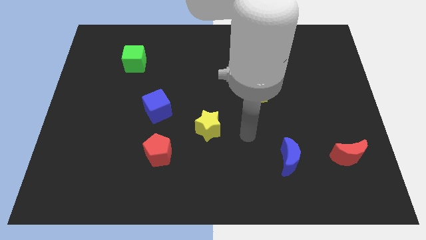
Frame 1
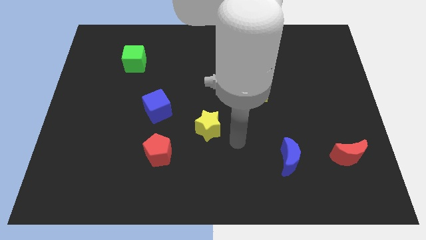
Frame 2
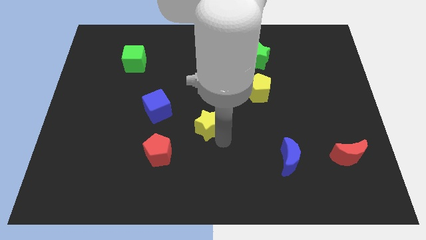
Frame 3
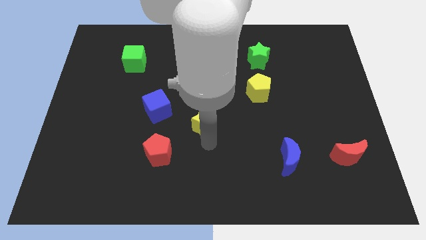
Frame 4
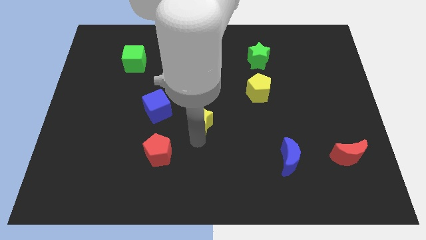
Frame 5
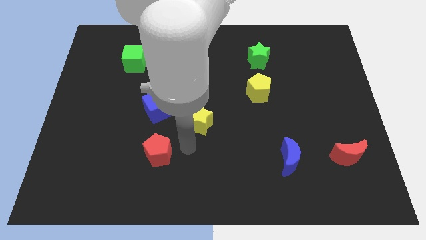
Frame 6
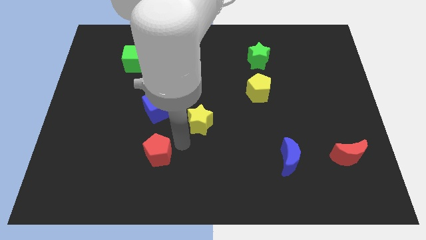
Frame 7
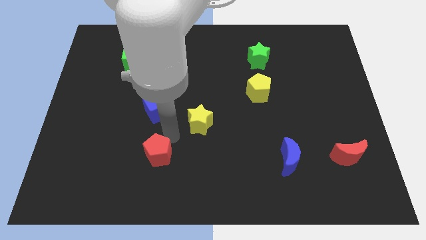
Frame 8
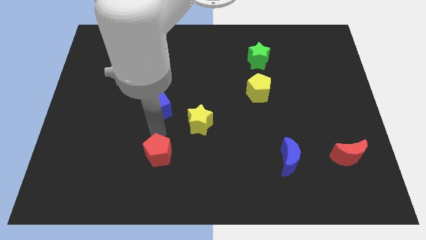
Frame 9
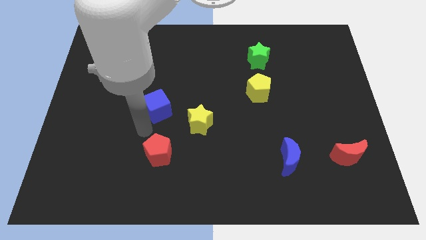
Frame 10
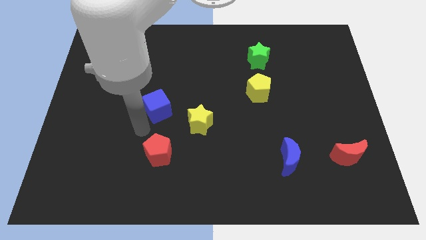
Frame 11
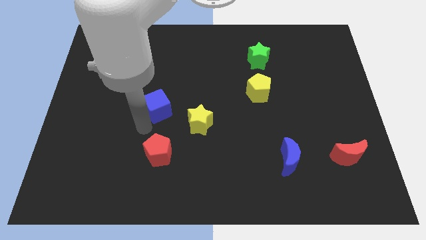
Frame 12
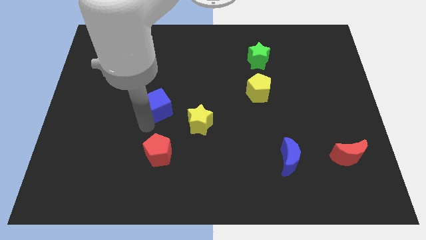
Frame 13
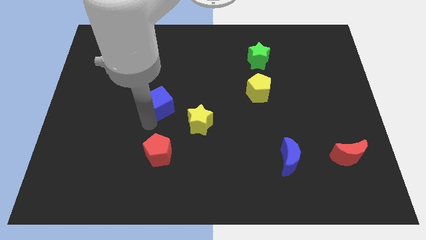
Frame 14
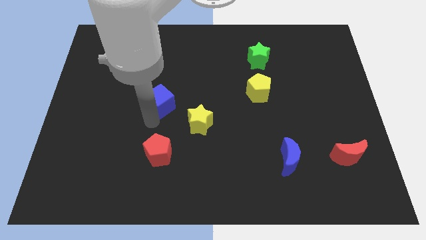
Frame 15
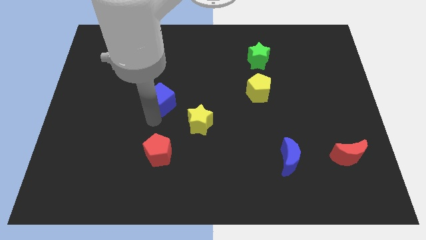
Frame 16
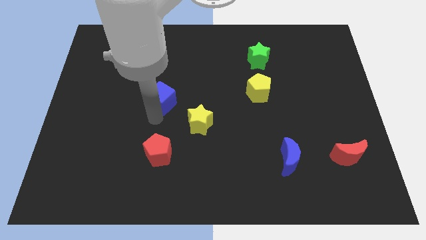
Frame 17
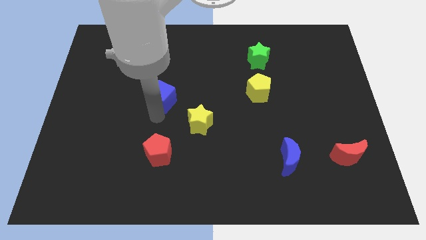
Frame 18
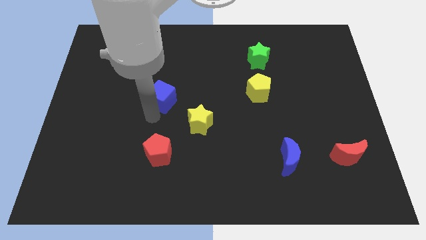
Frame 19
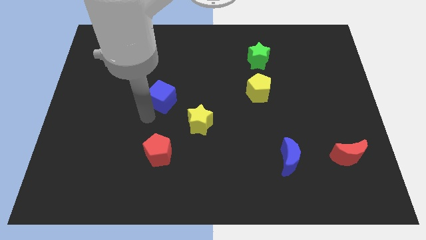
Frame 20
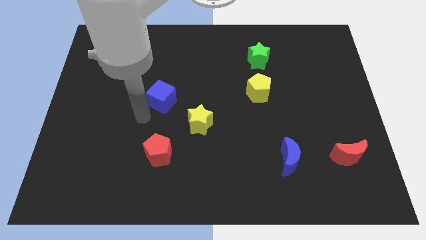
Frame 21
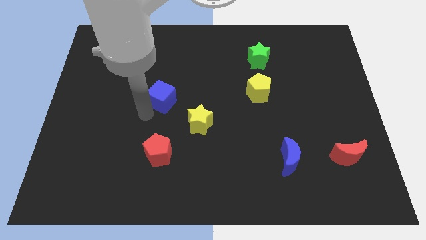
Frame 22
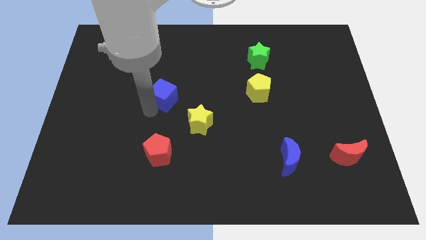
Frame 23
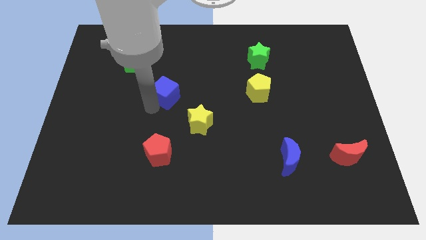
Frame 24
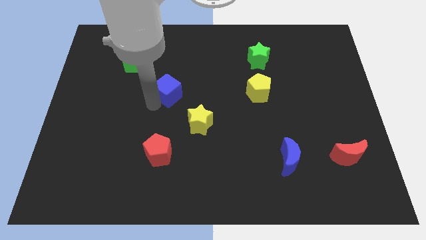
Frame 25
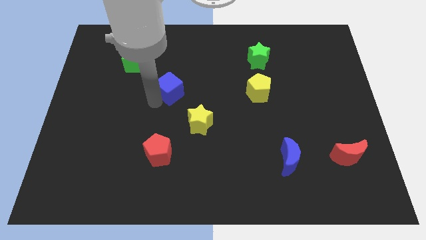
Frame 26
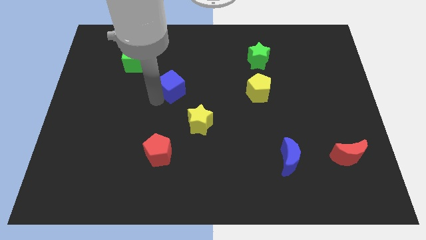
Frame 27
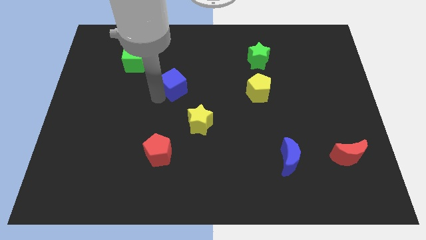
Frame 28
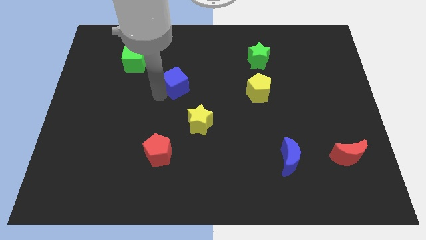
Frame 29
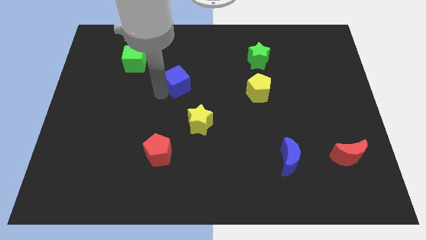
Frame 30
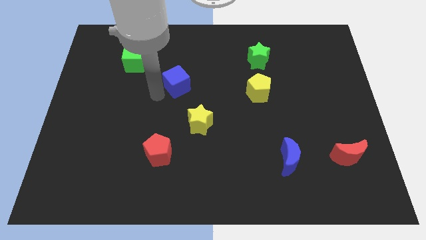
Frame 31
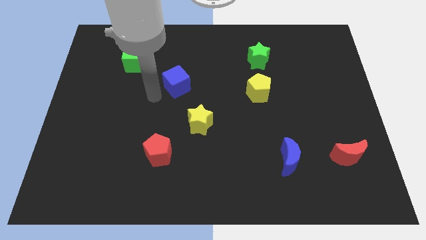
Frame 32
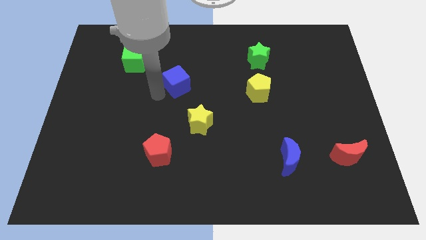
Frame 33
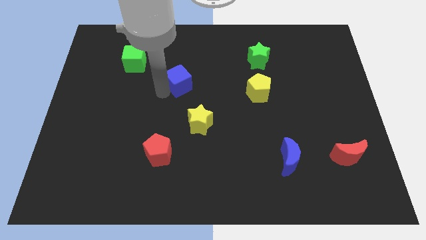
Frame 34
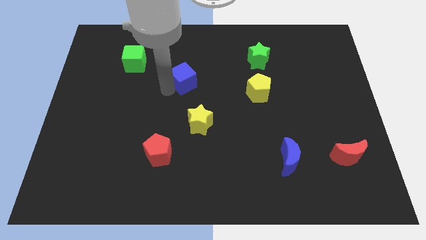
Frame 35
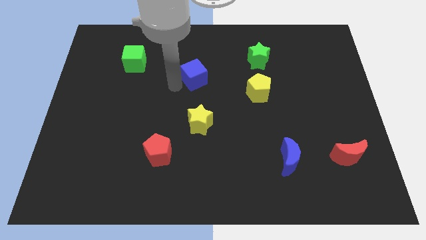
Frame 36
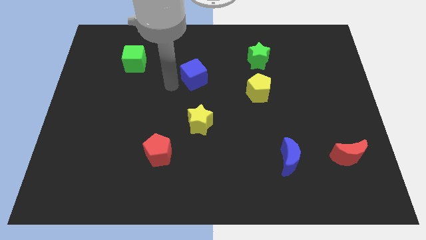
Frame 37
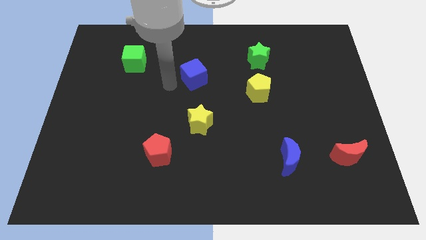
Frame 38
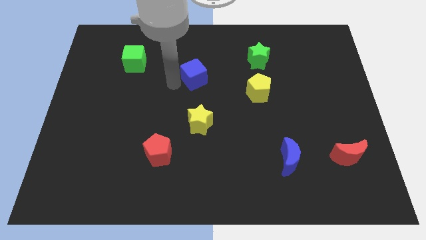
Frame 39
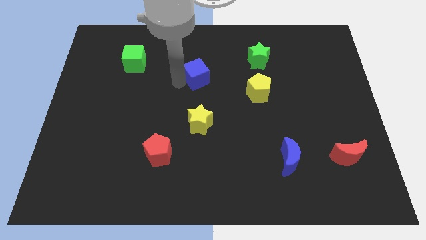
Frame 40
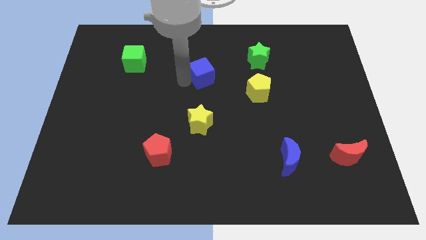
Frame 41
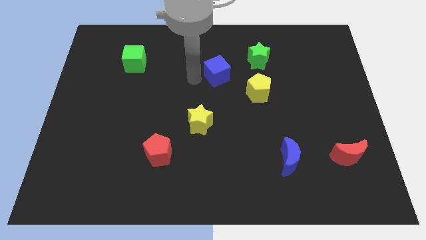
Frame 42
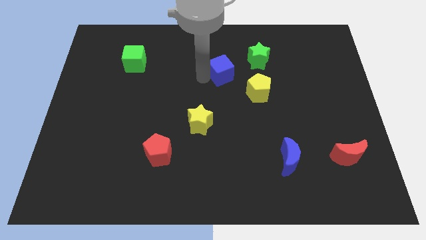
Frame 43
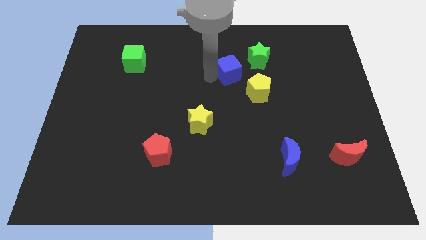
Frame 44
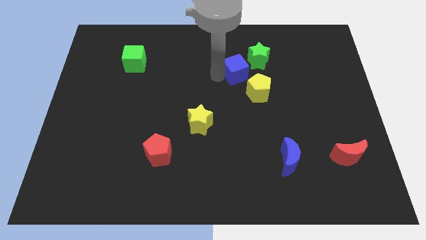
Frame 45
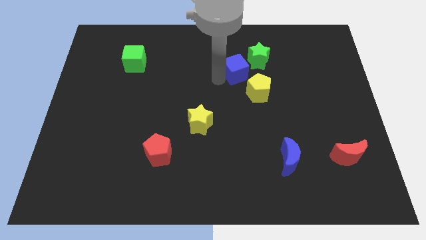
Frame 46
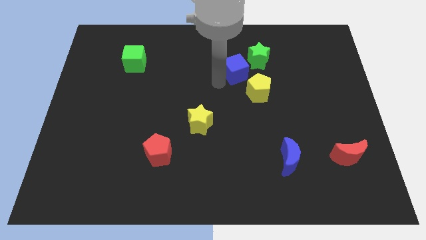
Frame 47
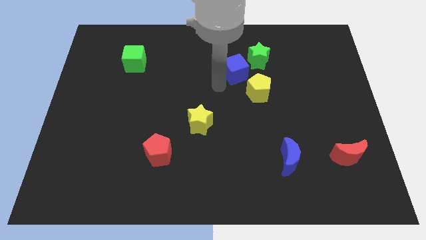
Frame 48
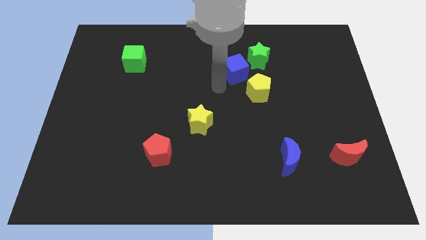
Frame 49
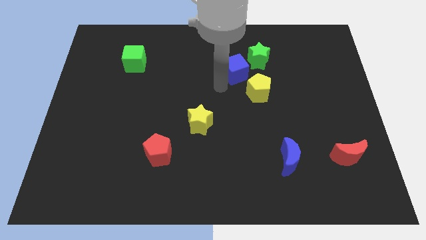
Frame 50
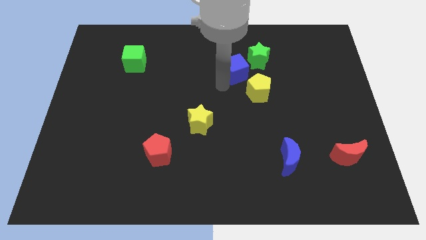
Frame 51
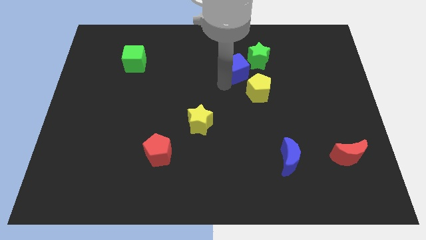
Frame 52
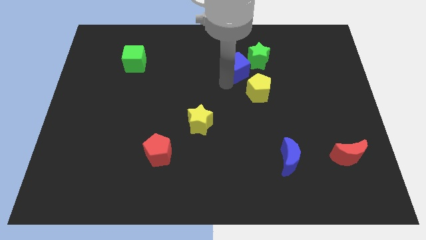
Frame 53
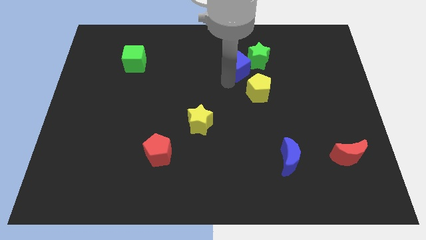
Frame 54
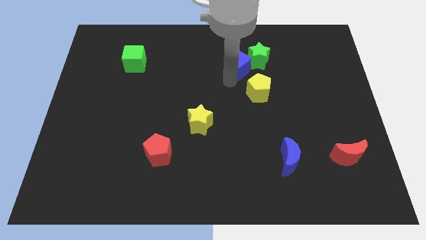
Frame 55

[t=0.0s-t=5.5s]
slide the blue cube towards the green star

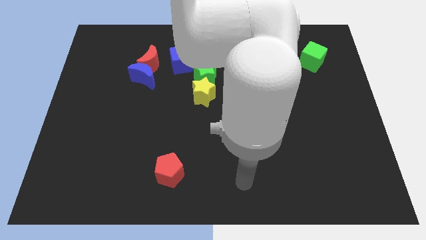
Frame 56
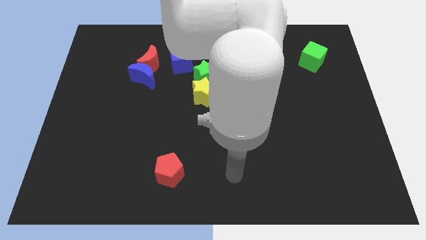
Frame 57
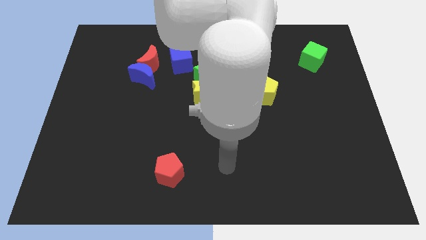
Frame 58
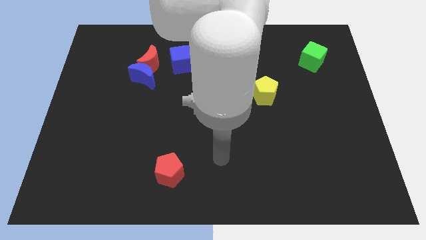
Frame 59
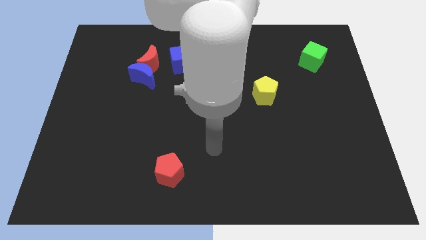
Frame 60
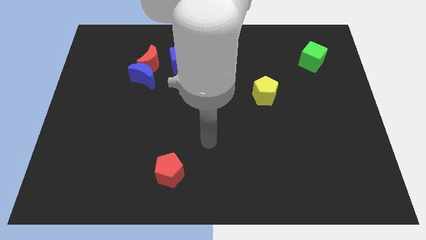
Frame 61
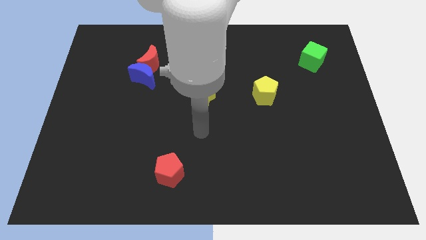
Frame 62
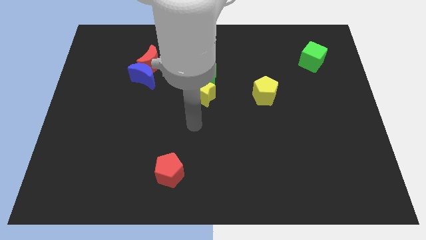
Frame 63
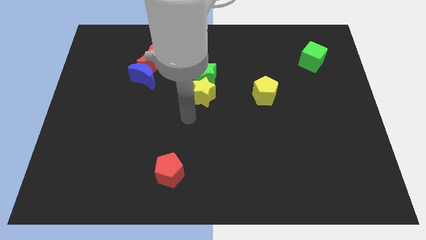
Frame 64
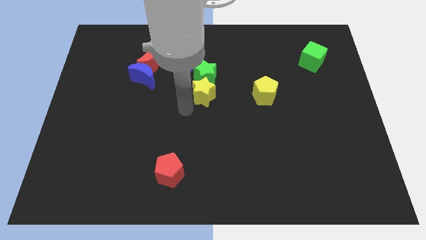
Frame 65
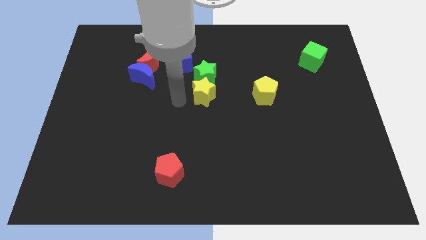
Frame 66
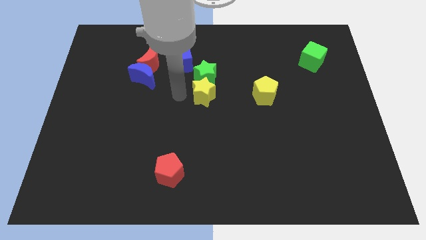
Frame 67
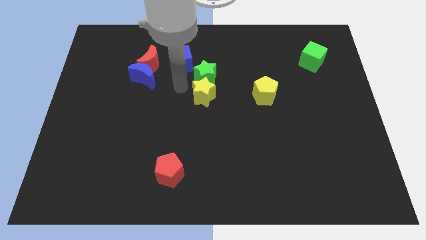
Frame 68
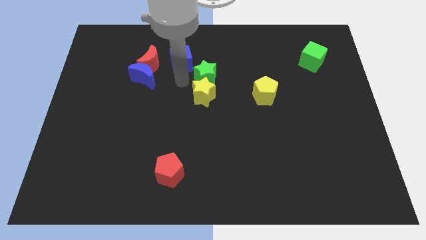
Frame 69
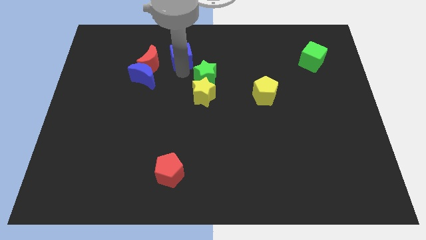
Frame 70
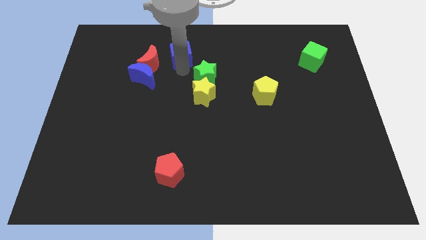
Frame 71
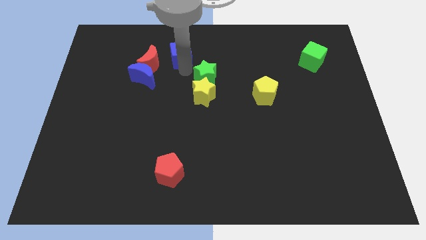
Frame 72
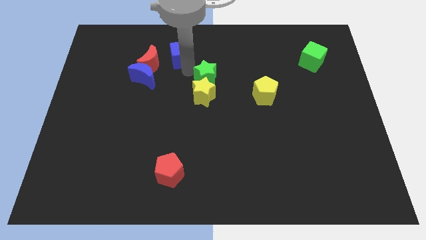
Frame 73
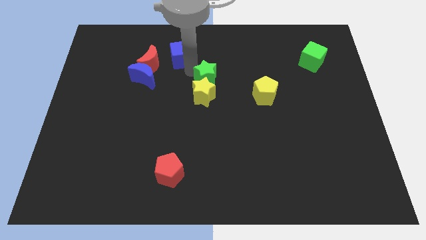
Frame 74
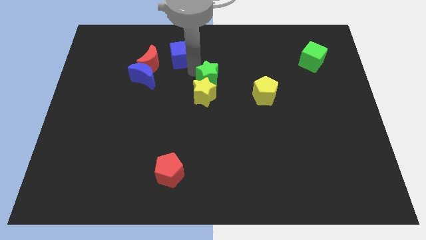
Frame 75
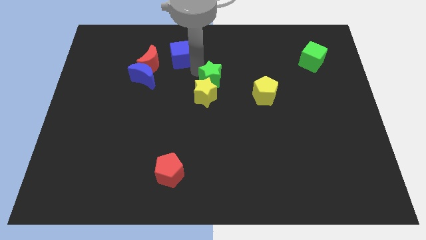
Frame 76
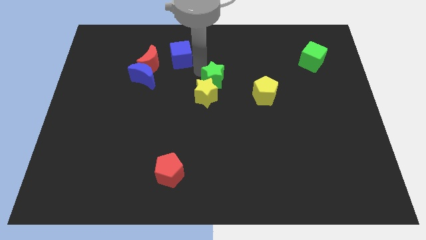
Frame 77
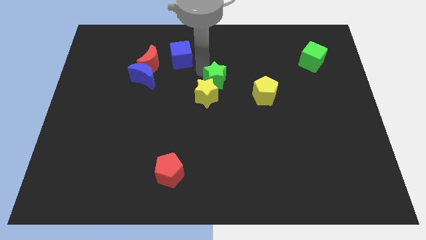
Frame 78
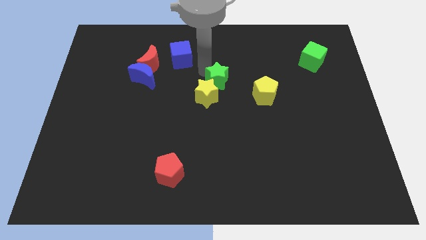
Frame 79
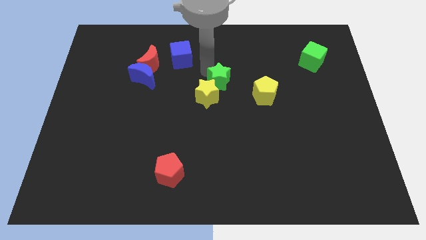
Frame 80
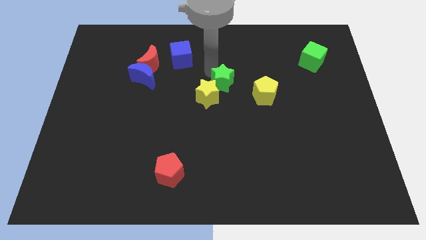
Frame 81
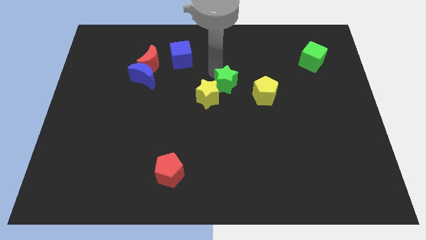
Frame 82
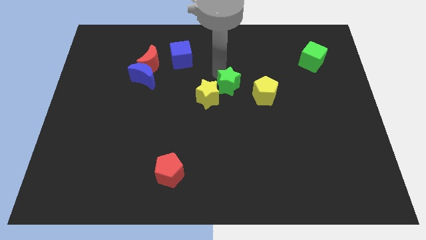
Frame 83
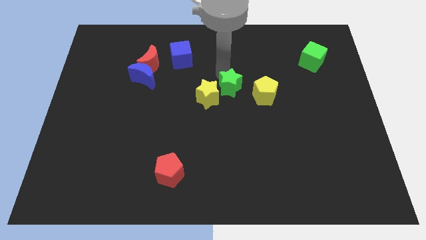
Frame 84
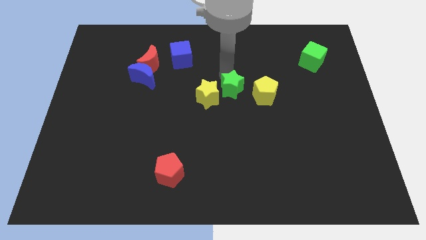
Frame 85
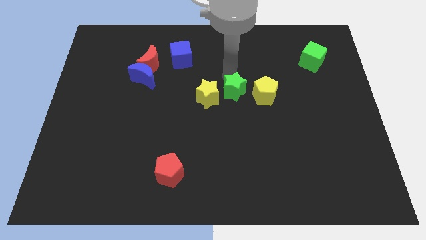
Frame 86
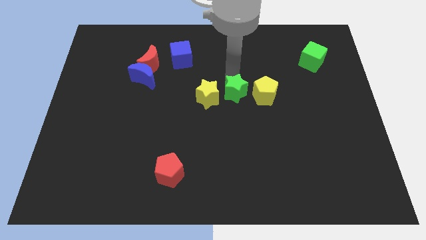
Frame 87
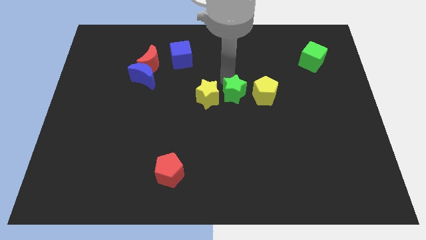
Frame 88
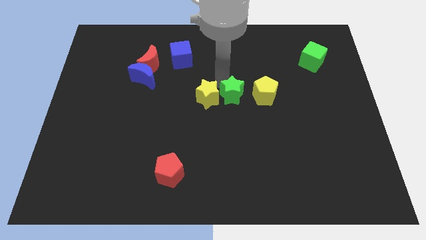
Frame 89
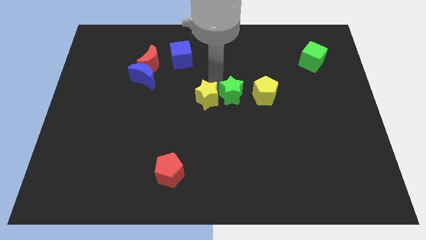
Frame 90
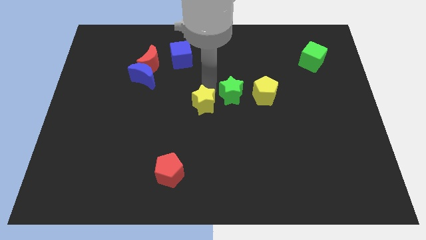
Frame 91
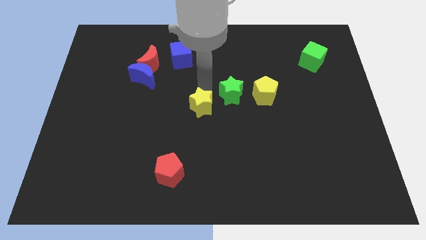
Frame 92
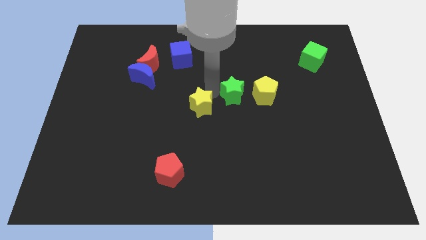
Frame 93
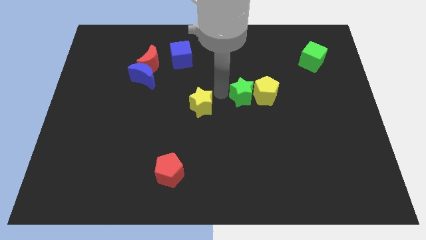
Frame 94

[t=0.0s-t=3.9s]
move the green star close to the yellow pentagon
